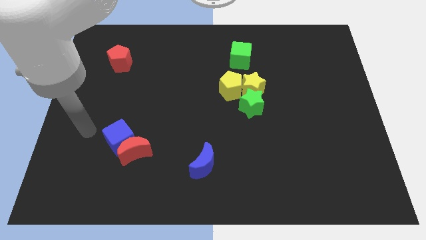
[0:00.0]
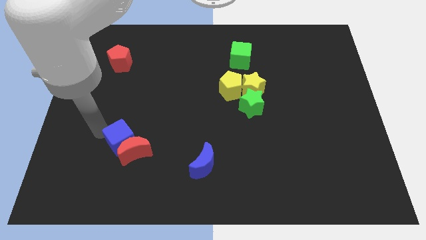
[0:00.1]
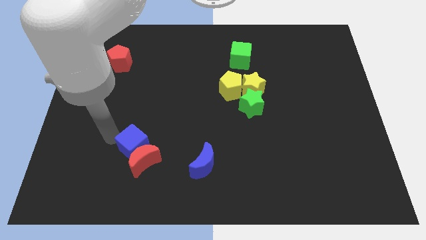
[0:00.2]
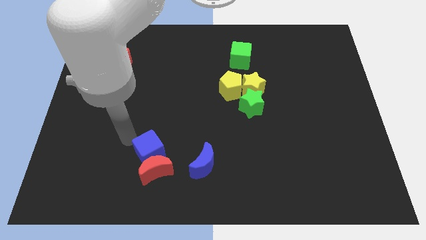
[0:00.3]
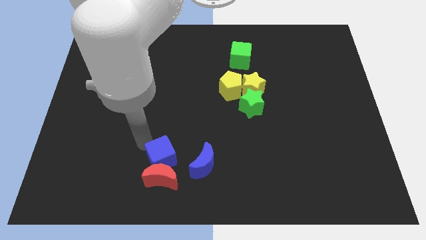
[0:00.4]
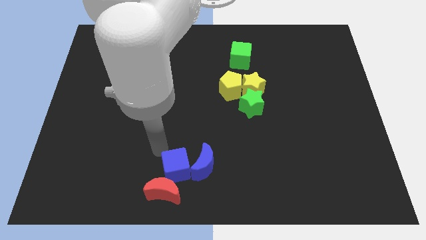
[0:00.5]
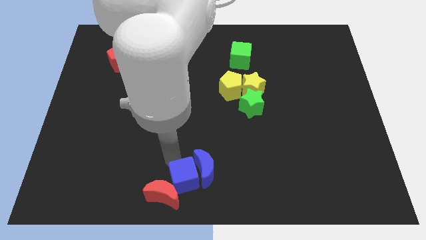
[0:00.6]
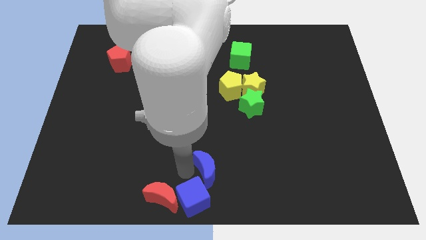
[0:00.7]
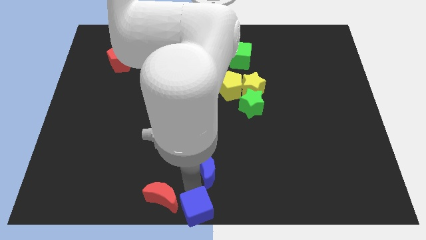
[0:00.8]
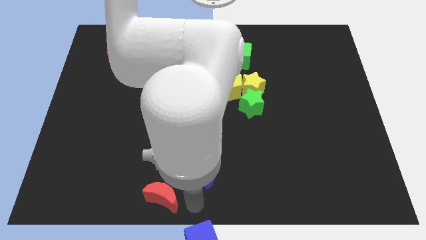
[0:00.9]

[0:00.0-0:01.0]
move the red moon away from the blue cube

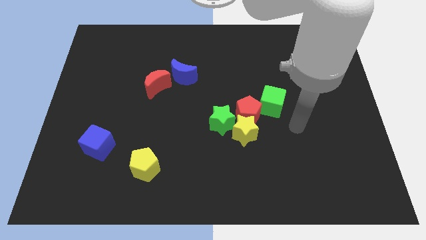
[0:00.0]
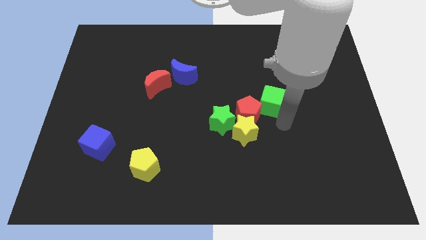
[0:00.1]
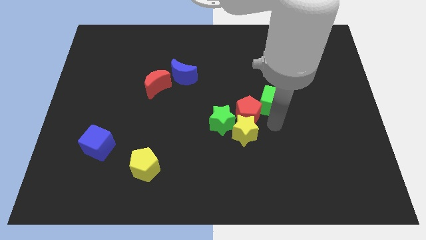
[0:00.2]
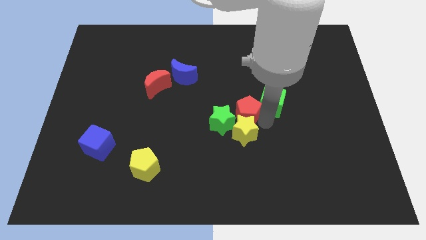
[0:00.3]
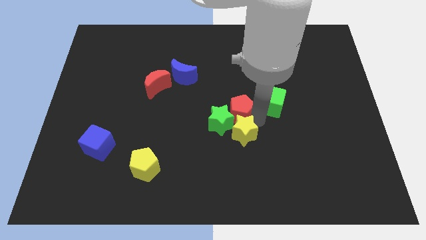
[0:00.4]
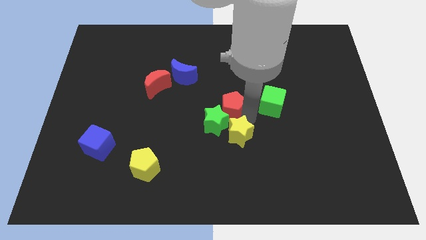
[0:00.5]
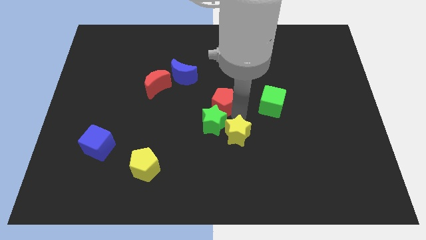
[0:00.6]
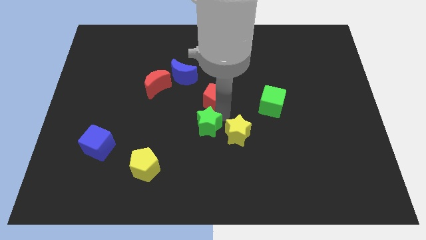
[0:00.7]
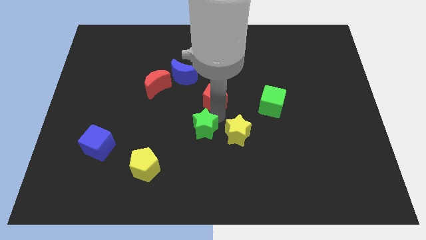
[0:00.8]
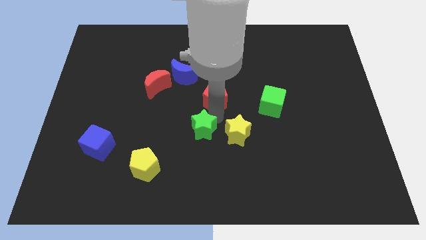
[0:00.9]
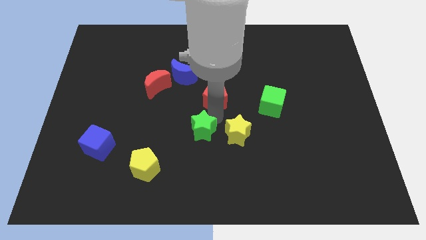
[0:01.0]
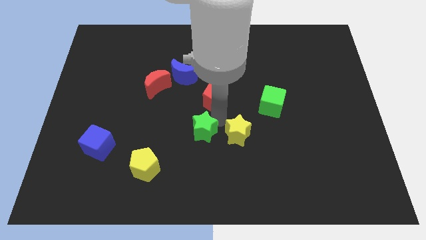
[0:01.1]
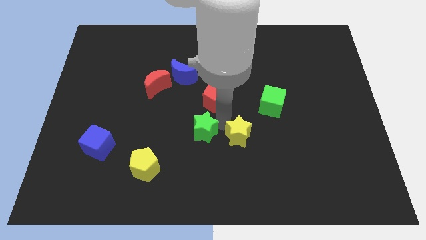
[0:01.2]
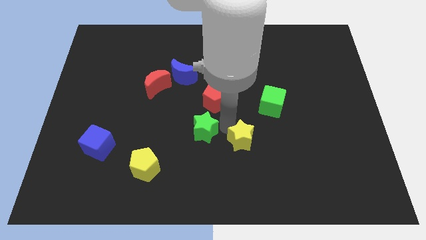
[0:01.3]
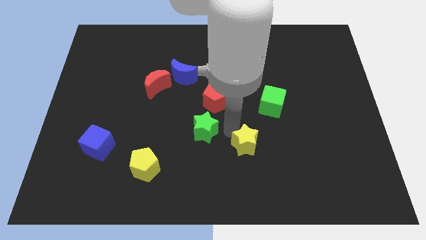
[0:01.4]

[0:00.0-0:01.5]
move the yellow star away from the red pentagon and green star

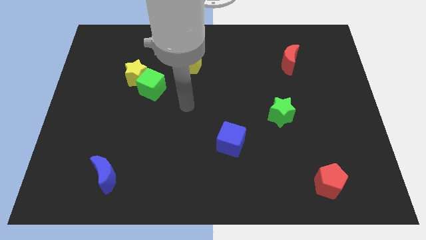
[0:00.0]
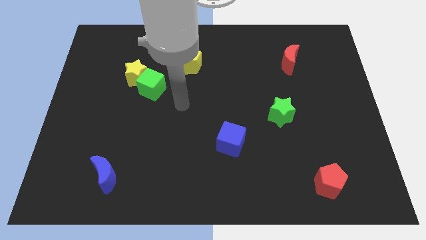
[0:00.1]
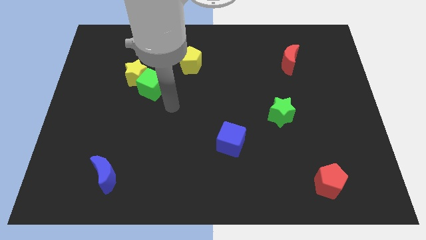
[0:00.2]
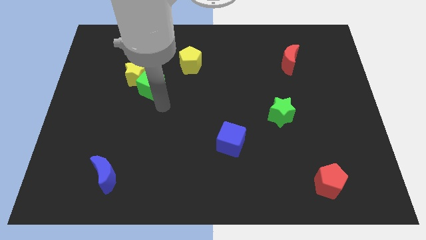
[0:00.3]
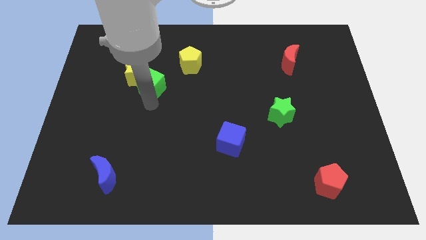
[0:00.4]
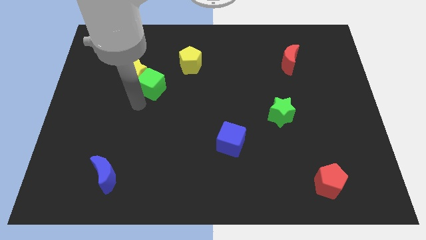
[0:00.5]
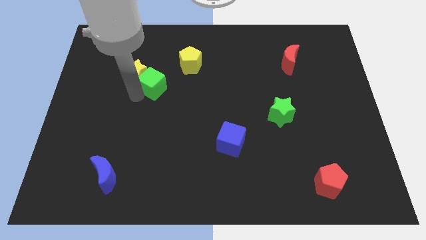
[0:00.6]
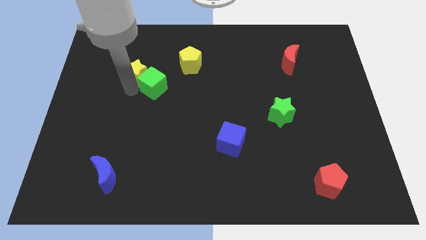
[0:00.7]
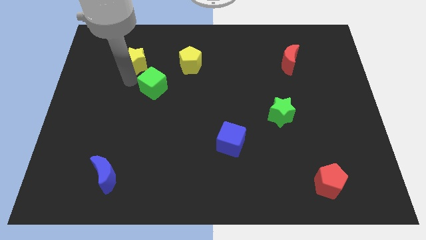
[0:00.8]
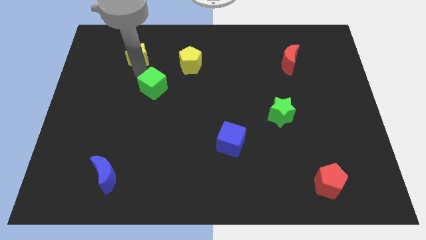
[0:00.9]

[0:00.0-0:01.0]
separate the green cube from the yellow star

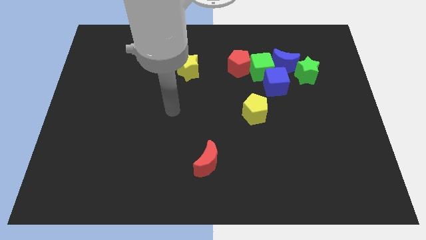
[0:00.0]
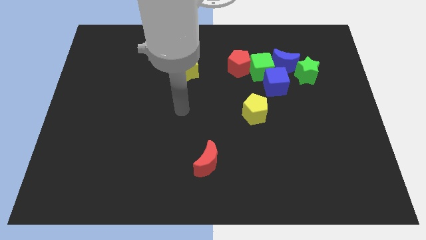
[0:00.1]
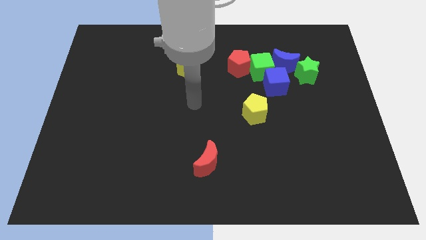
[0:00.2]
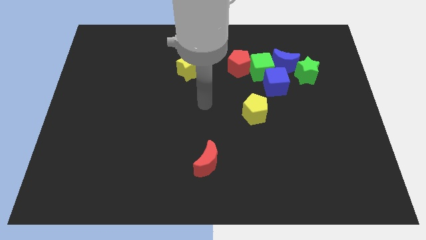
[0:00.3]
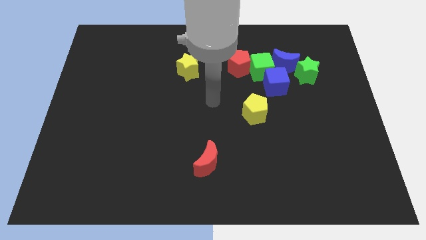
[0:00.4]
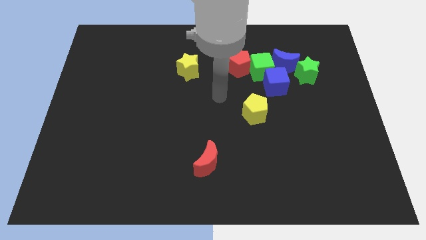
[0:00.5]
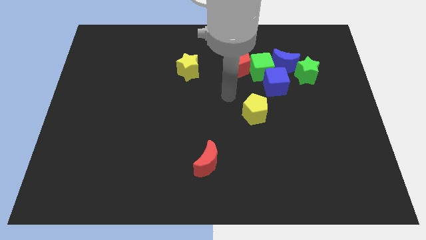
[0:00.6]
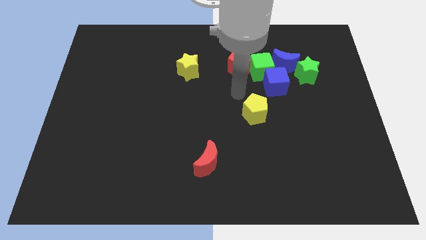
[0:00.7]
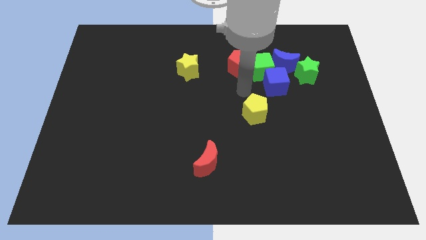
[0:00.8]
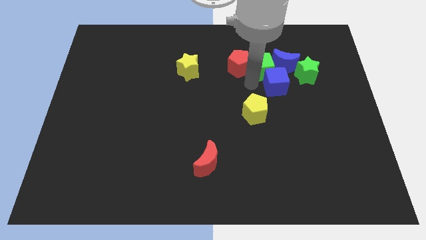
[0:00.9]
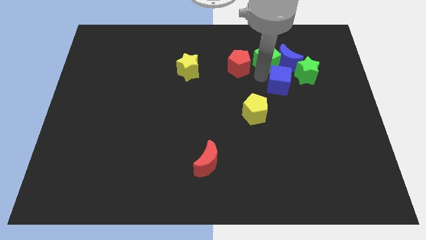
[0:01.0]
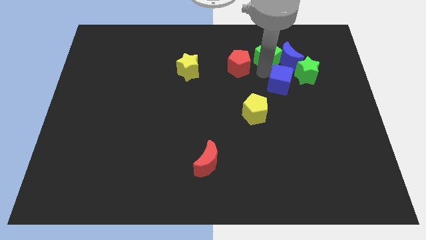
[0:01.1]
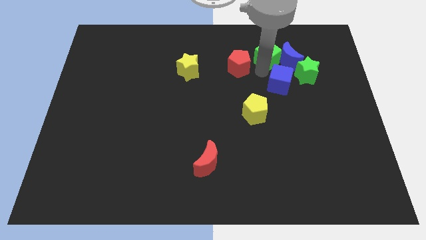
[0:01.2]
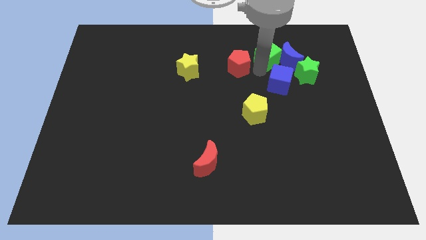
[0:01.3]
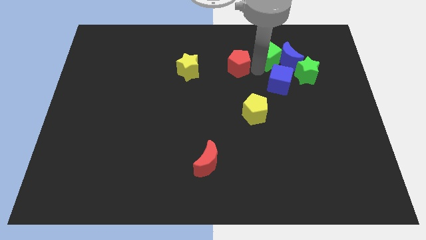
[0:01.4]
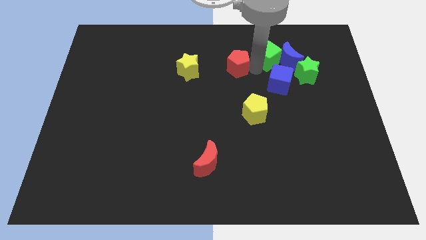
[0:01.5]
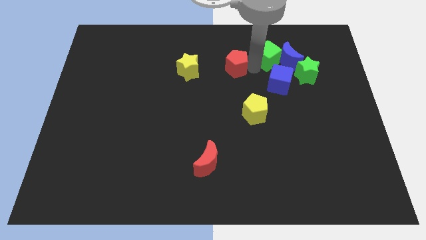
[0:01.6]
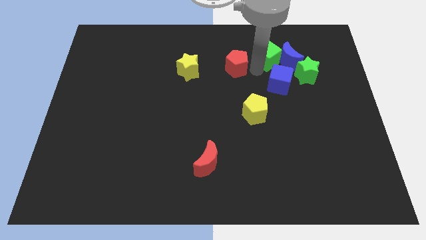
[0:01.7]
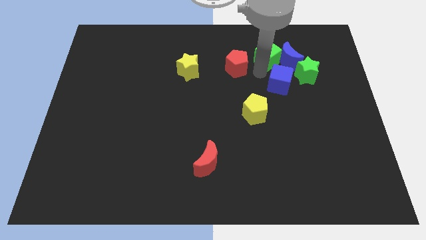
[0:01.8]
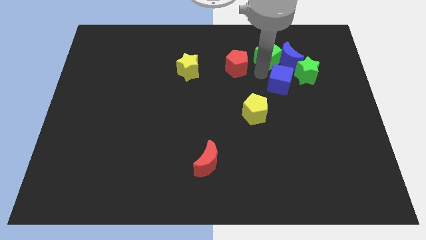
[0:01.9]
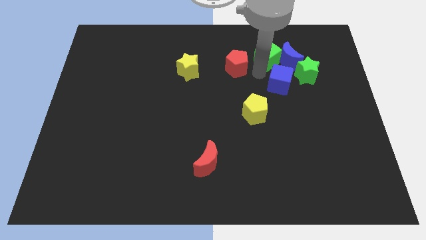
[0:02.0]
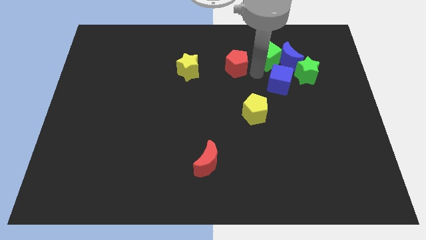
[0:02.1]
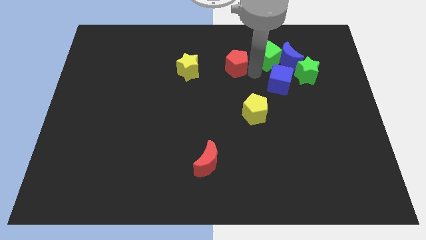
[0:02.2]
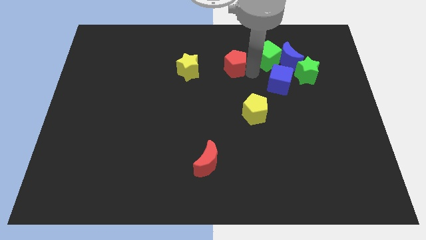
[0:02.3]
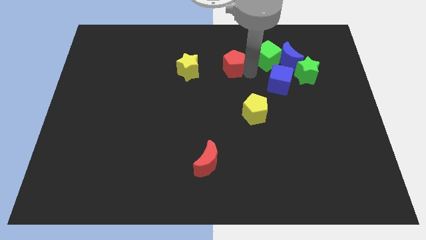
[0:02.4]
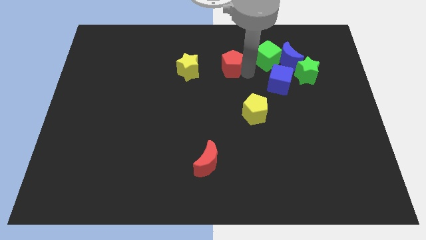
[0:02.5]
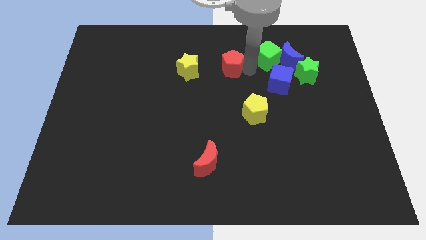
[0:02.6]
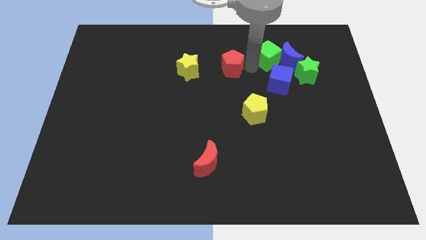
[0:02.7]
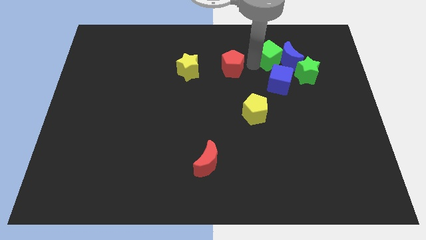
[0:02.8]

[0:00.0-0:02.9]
pull the red pentagon apart from the green cube

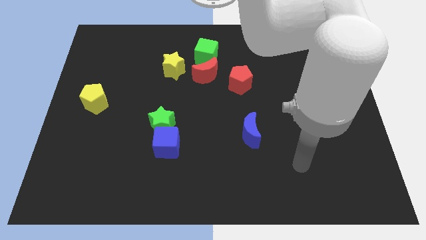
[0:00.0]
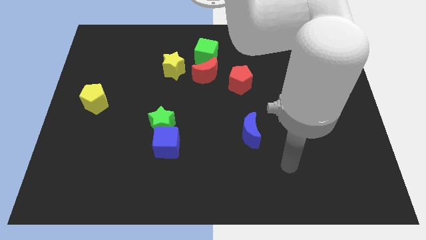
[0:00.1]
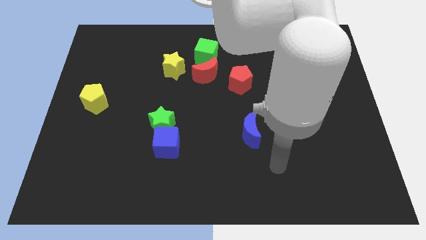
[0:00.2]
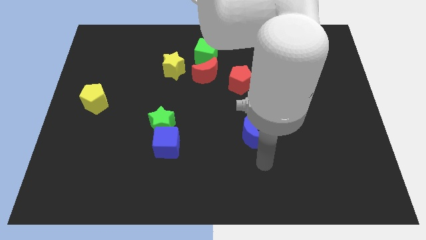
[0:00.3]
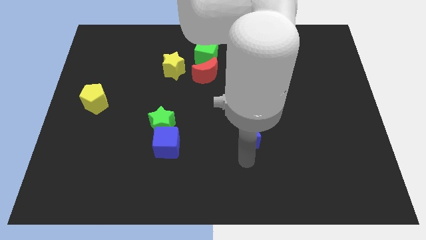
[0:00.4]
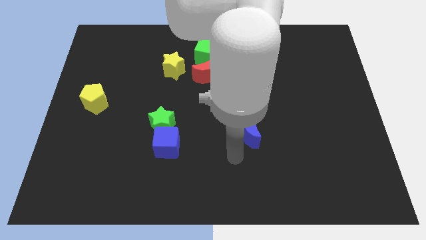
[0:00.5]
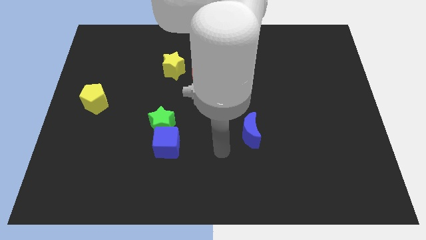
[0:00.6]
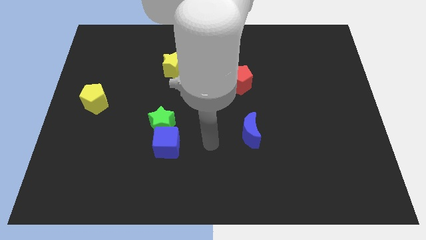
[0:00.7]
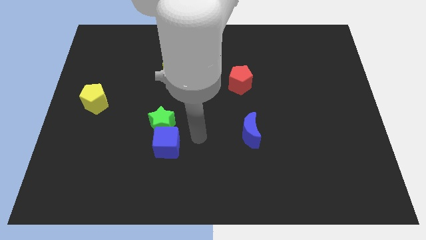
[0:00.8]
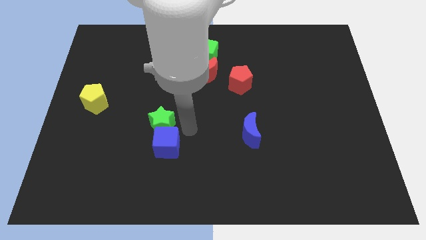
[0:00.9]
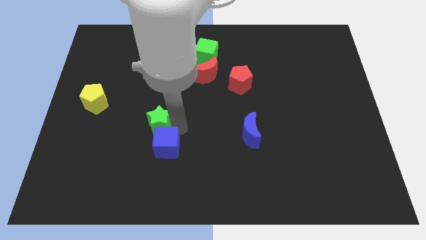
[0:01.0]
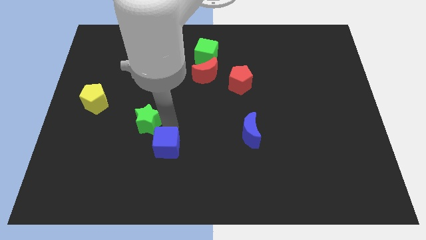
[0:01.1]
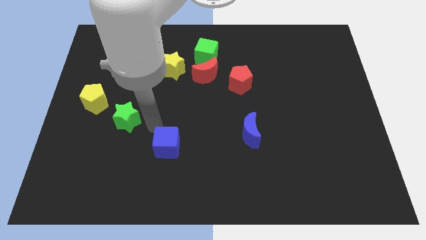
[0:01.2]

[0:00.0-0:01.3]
move the blue cube away from the green star

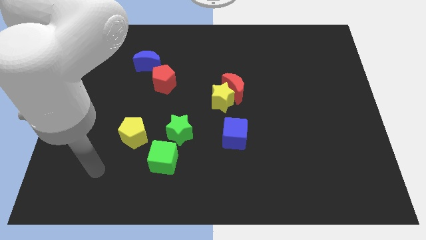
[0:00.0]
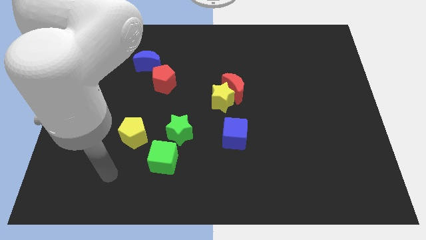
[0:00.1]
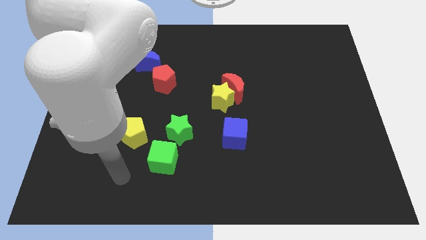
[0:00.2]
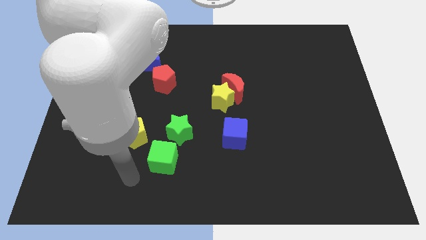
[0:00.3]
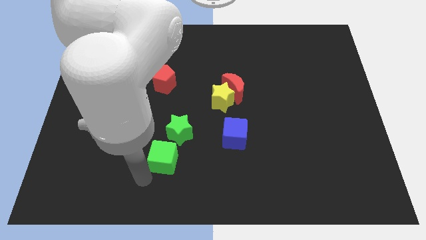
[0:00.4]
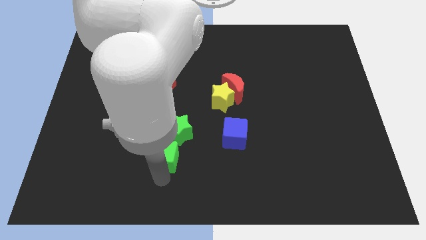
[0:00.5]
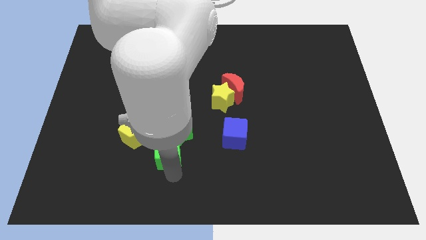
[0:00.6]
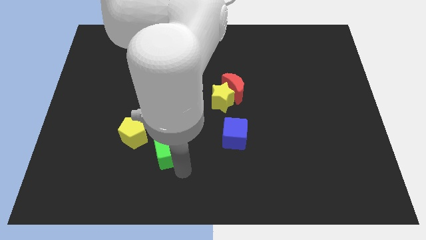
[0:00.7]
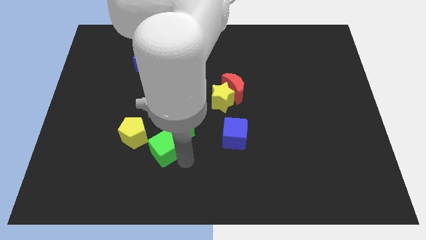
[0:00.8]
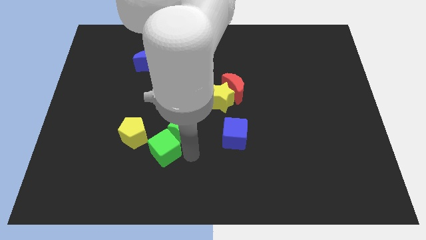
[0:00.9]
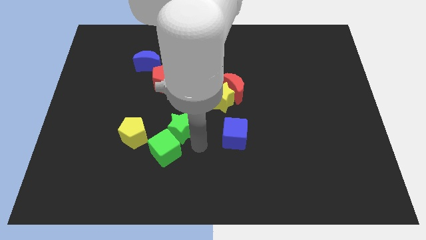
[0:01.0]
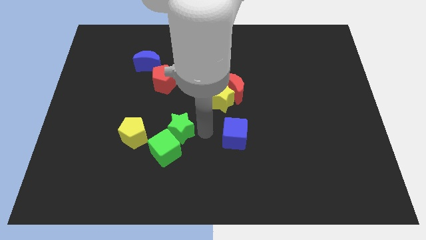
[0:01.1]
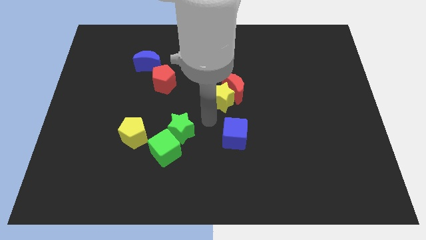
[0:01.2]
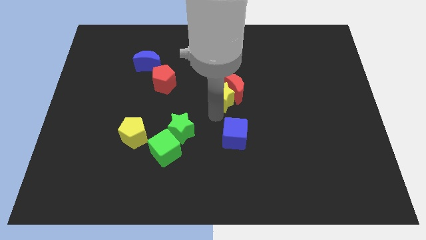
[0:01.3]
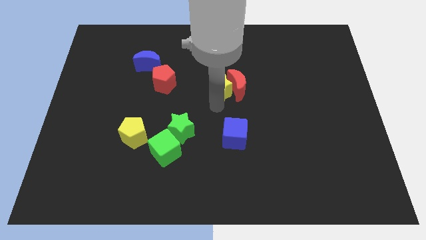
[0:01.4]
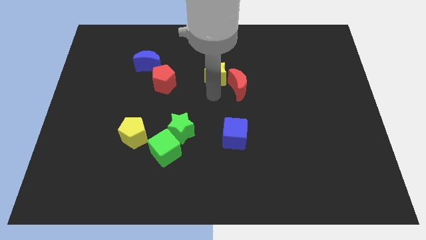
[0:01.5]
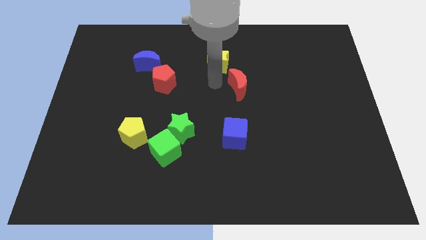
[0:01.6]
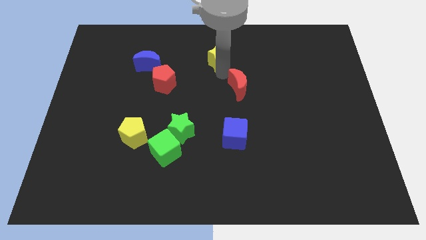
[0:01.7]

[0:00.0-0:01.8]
pull the red moon apart from the yellow star
